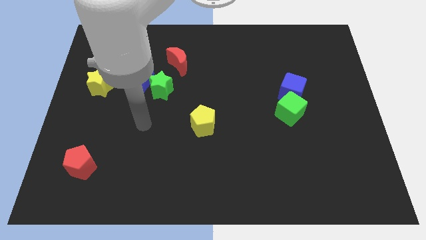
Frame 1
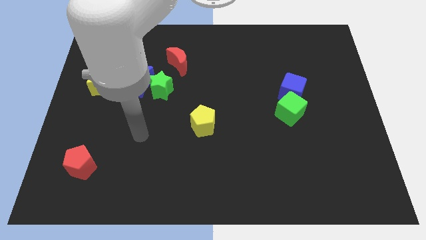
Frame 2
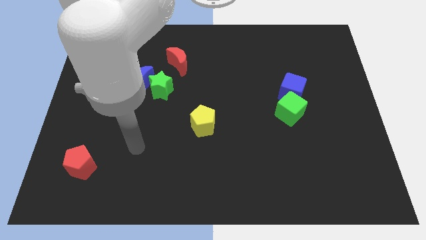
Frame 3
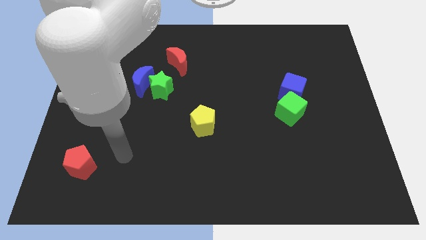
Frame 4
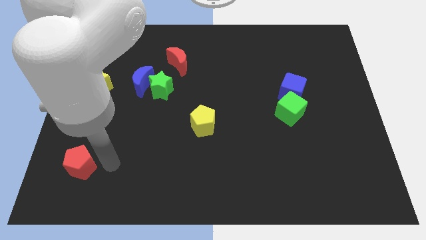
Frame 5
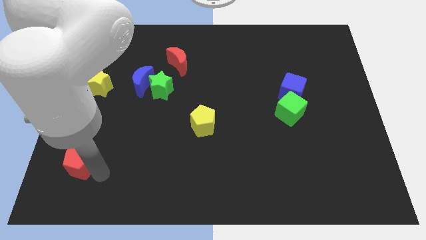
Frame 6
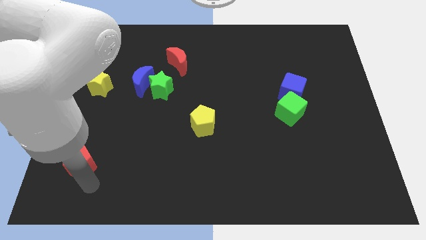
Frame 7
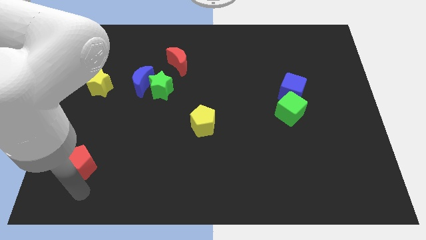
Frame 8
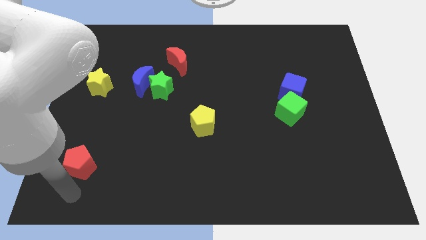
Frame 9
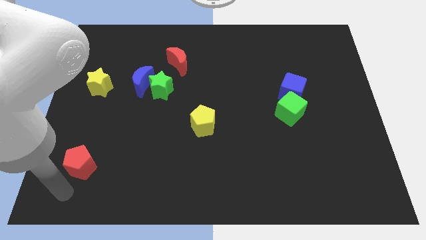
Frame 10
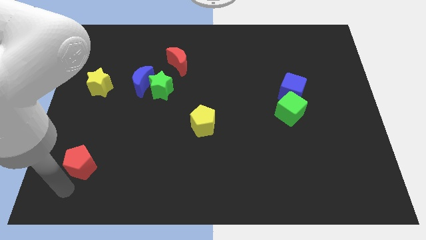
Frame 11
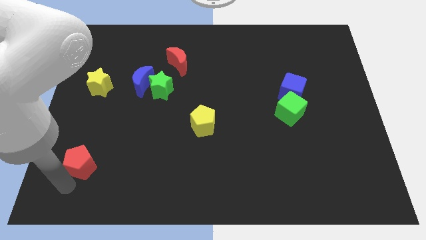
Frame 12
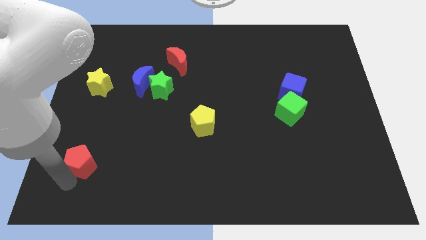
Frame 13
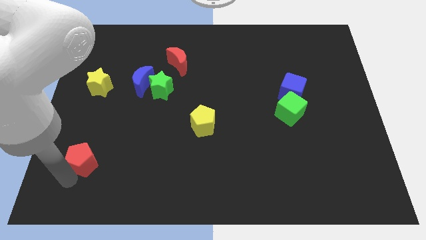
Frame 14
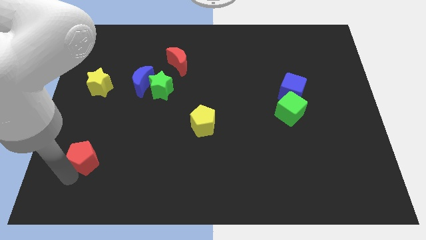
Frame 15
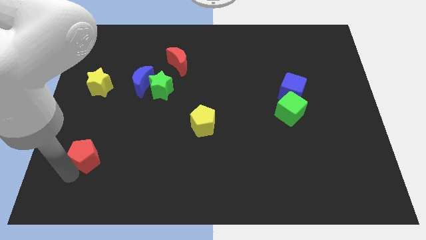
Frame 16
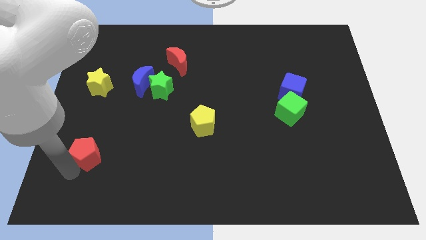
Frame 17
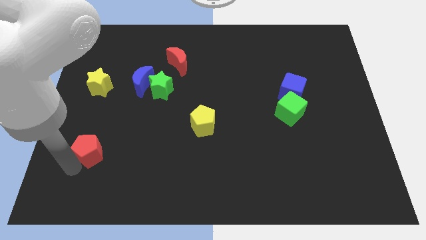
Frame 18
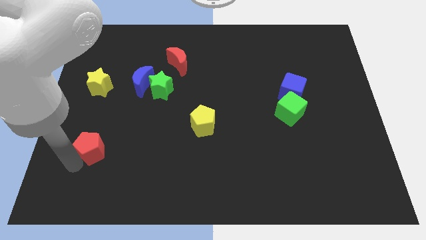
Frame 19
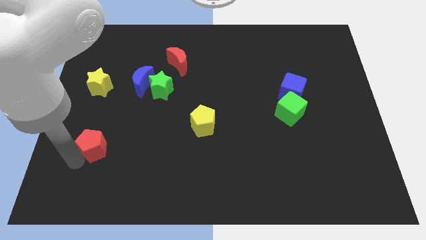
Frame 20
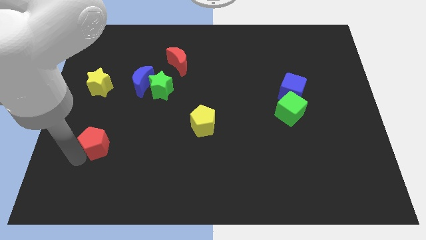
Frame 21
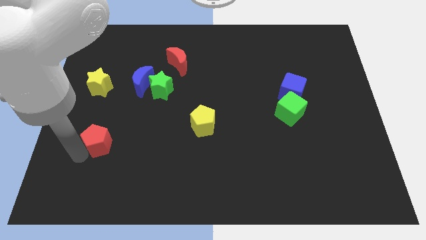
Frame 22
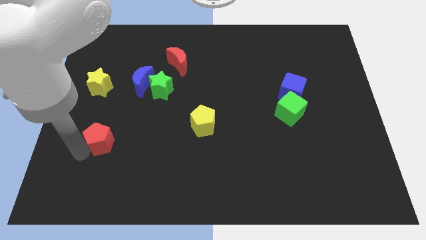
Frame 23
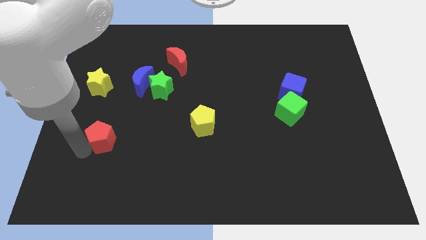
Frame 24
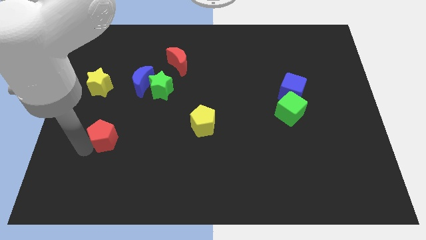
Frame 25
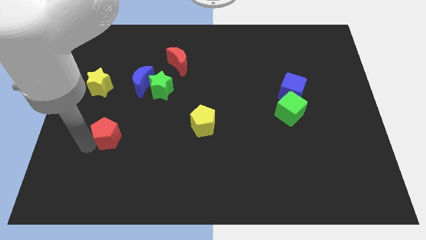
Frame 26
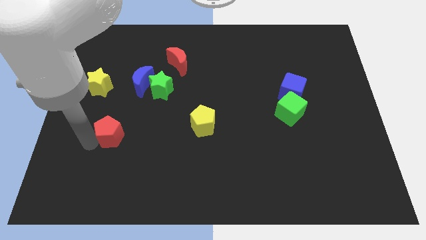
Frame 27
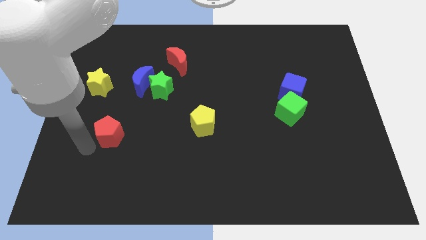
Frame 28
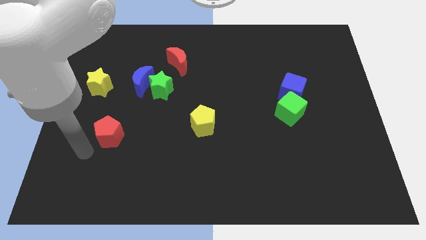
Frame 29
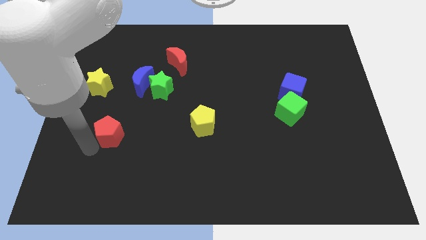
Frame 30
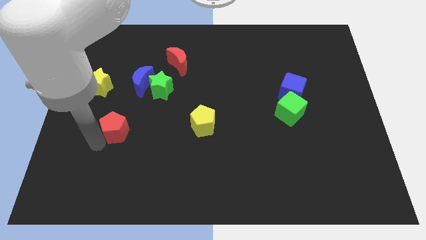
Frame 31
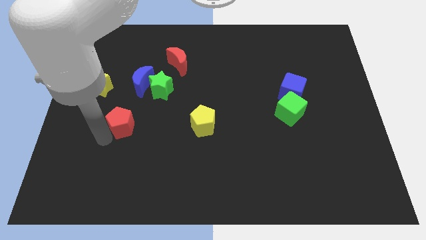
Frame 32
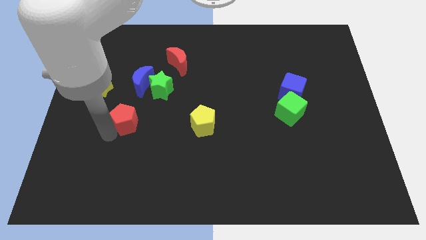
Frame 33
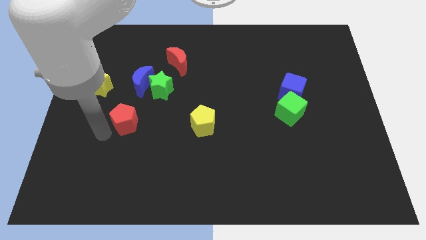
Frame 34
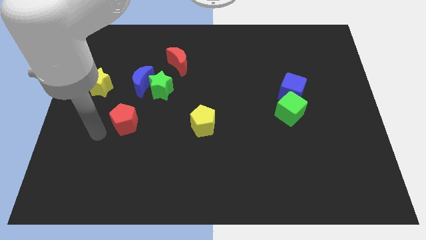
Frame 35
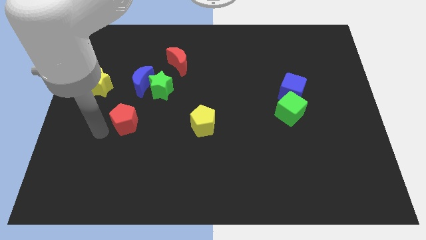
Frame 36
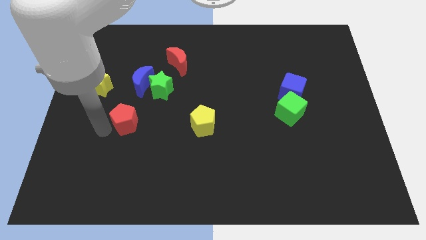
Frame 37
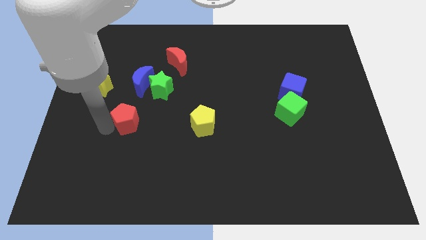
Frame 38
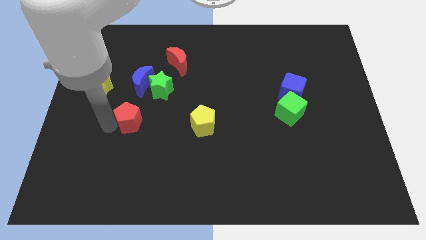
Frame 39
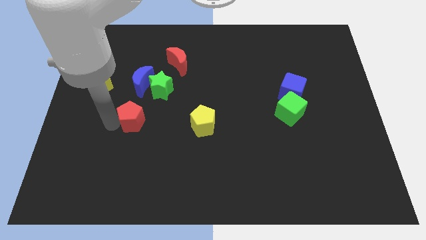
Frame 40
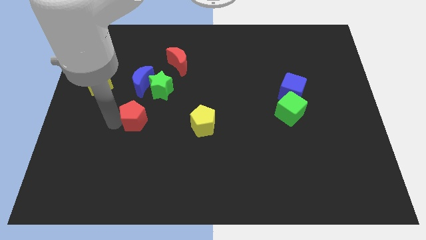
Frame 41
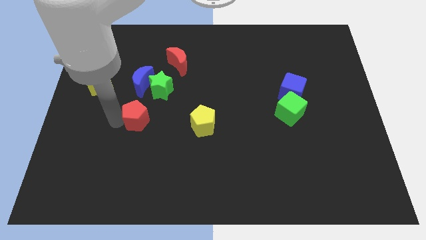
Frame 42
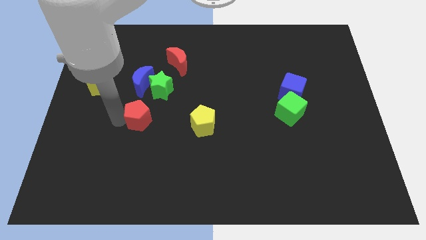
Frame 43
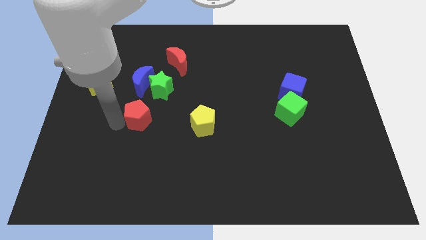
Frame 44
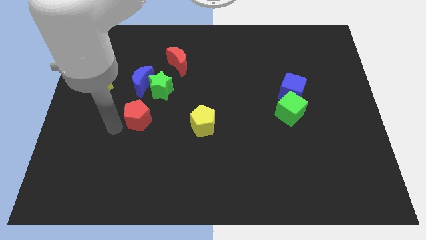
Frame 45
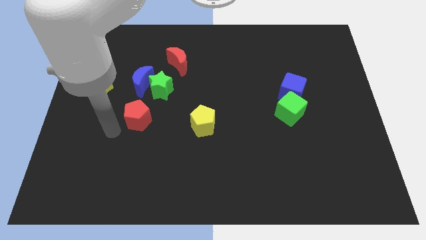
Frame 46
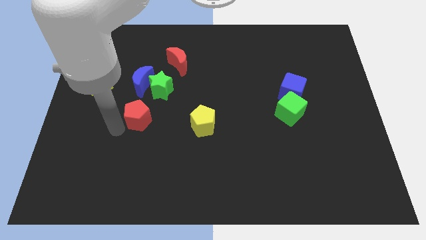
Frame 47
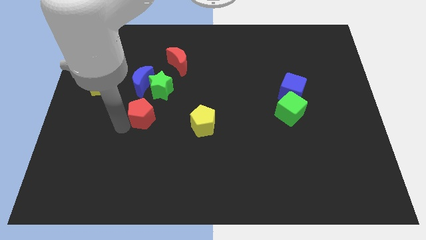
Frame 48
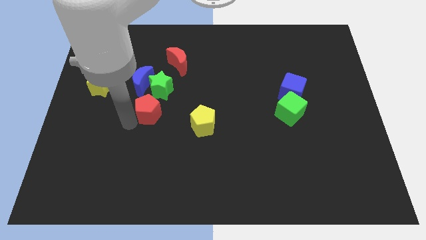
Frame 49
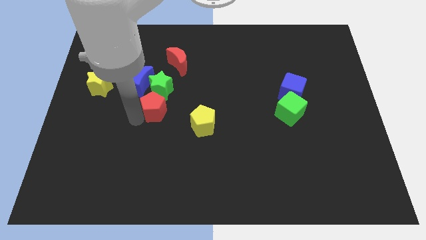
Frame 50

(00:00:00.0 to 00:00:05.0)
move the red pentagon up and right

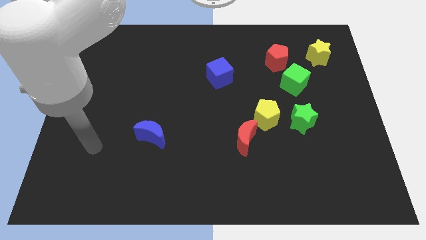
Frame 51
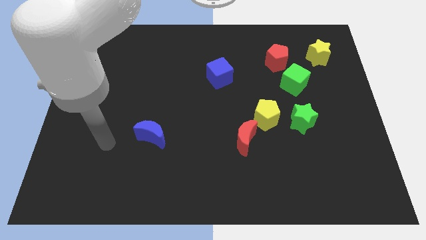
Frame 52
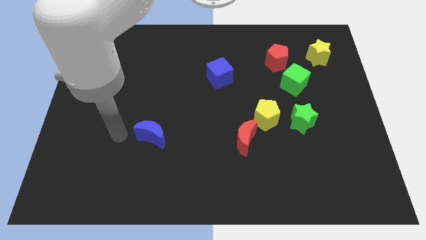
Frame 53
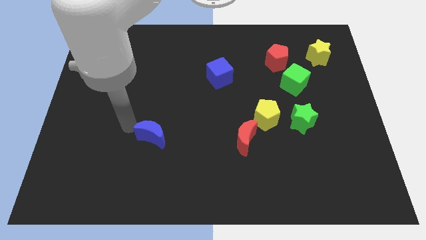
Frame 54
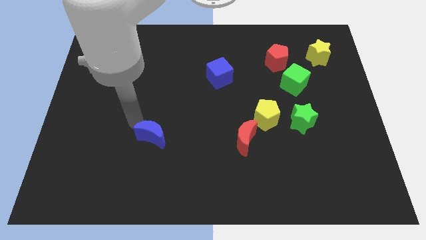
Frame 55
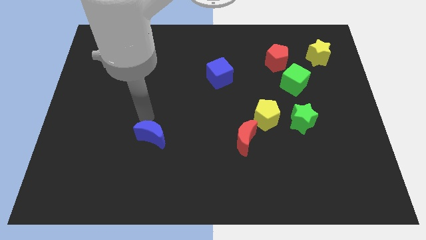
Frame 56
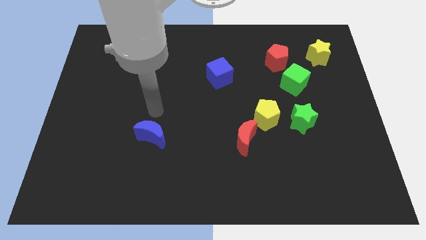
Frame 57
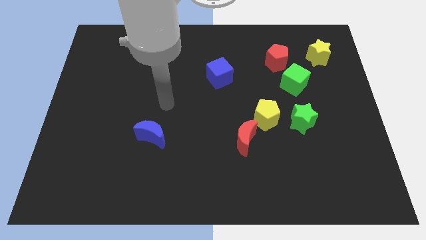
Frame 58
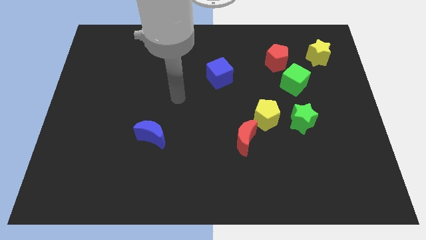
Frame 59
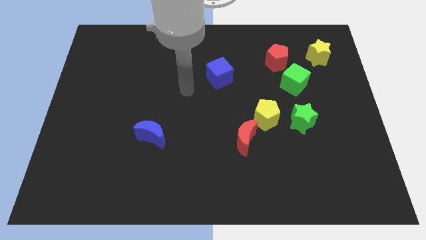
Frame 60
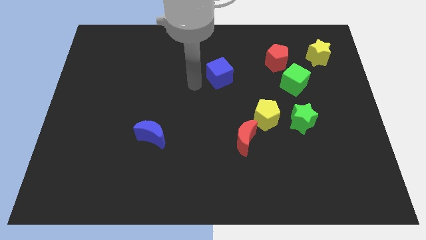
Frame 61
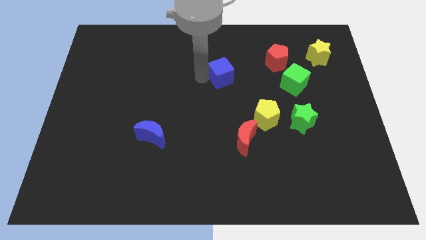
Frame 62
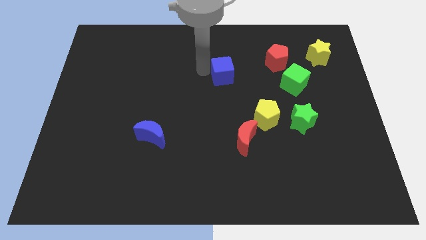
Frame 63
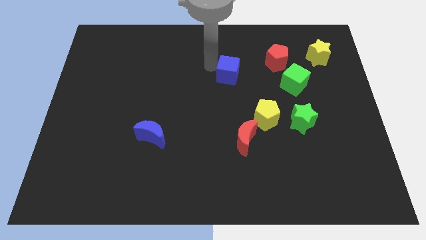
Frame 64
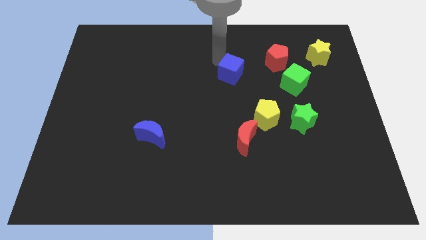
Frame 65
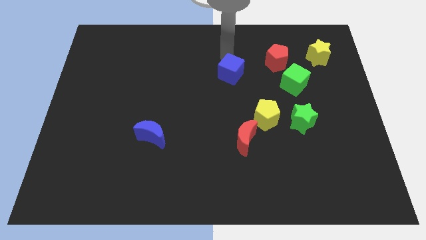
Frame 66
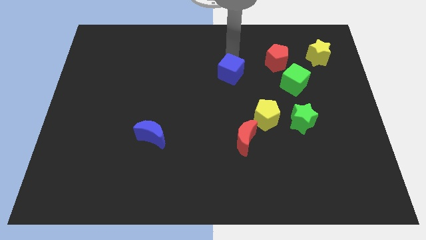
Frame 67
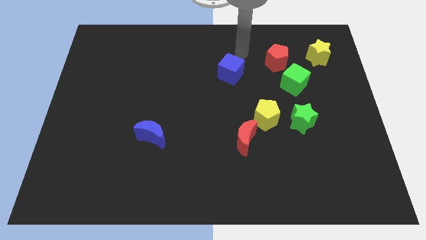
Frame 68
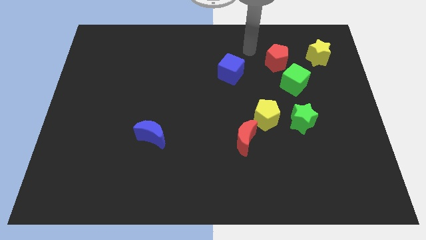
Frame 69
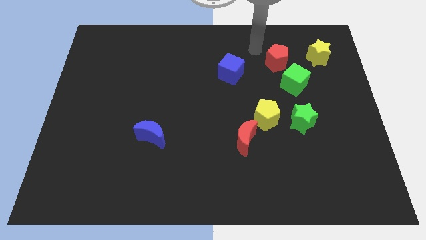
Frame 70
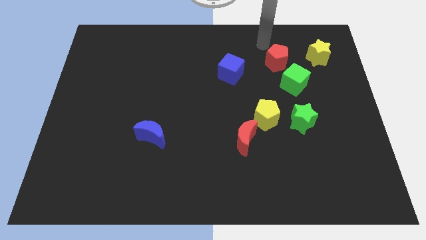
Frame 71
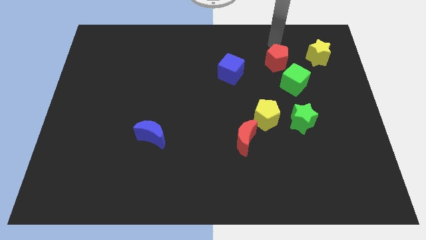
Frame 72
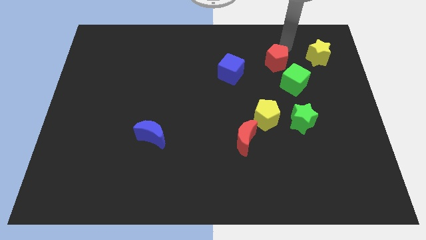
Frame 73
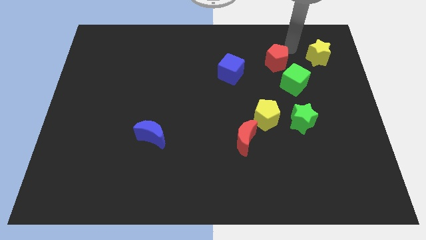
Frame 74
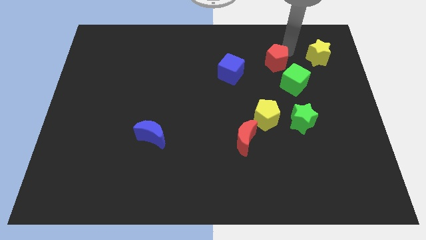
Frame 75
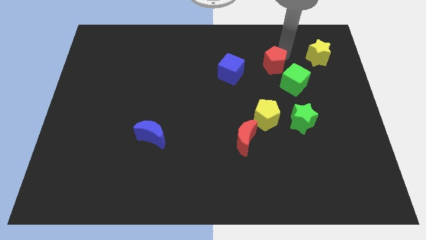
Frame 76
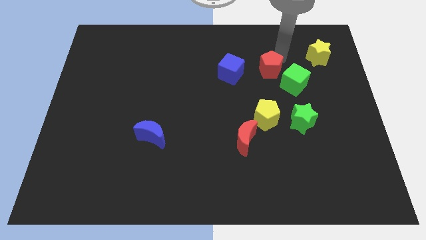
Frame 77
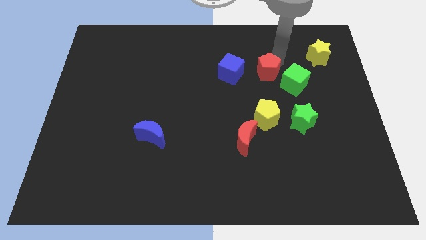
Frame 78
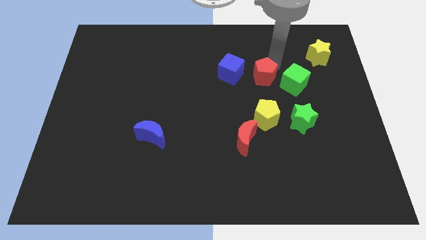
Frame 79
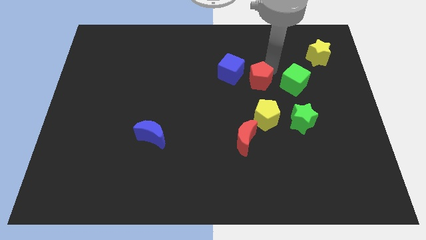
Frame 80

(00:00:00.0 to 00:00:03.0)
push the red pentagon a bit diagonally downwards and to the left

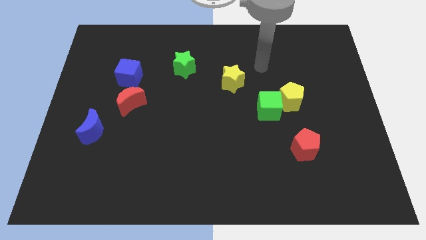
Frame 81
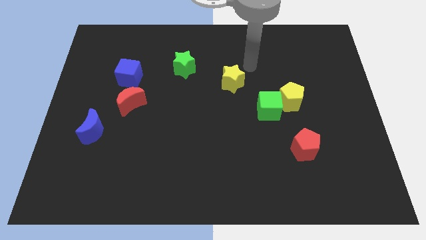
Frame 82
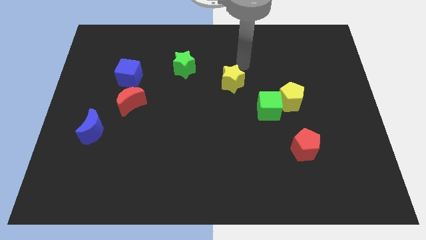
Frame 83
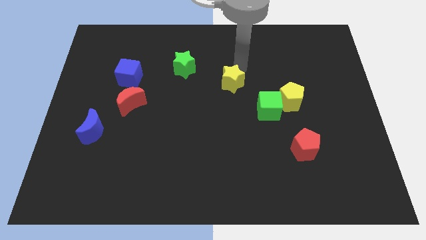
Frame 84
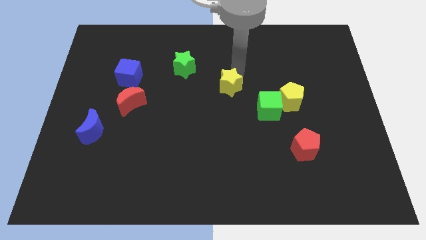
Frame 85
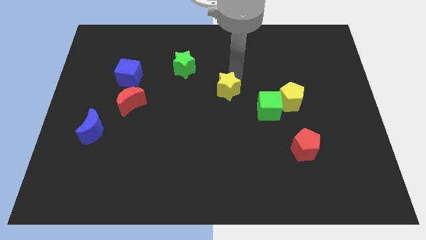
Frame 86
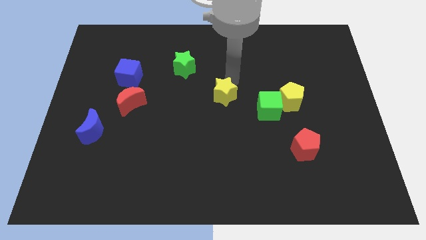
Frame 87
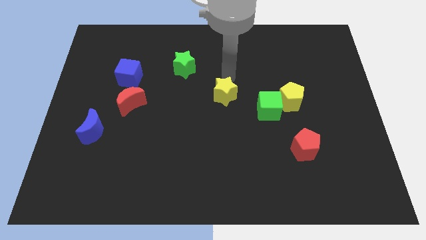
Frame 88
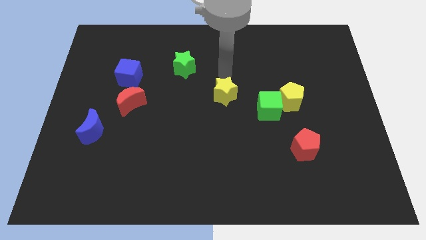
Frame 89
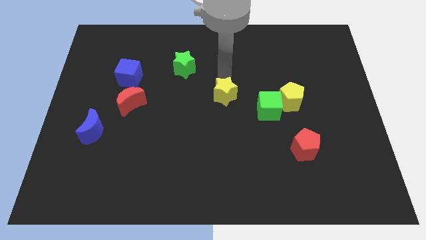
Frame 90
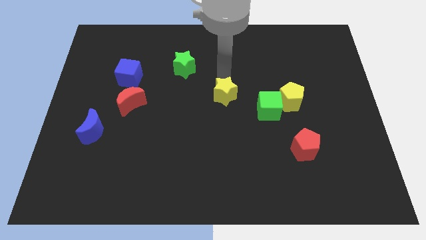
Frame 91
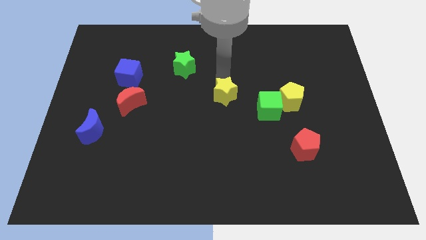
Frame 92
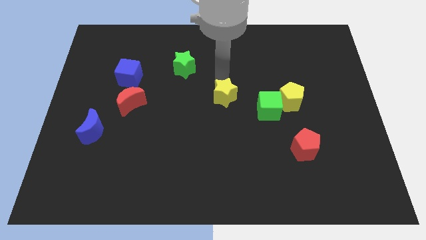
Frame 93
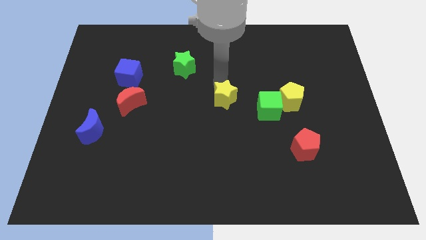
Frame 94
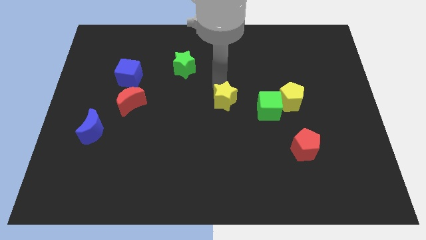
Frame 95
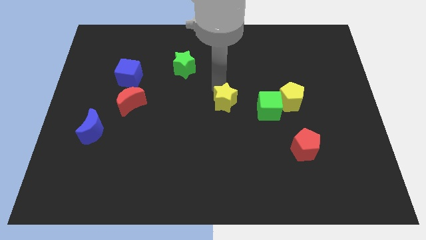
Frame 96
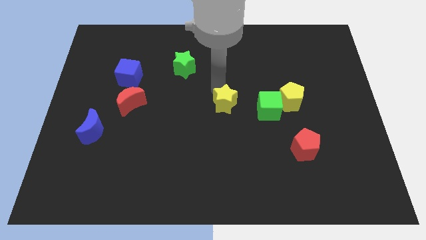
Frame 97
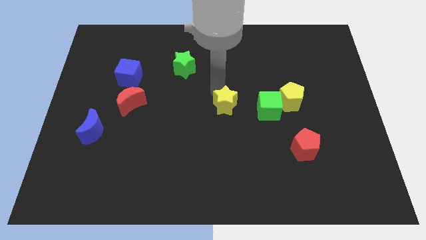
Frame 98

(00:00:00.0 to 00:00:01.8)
slide the yellow star somewhat downwards
